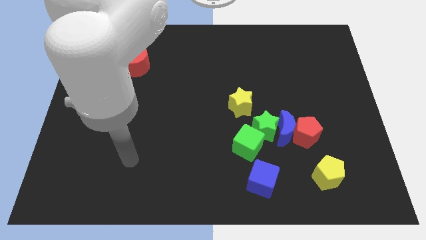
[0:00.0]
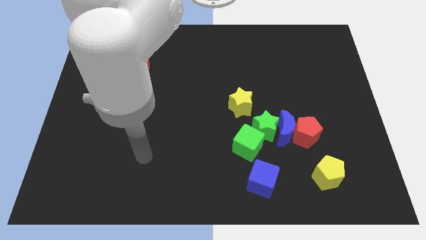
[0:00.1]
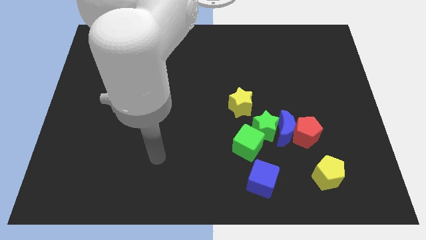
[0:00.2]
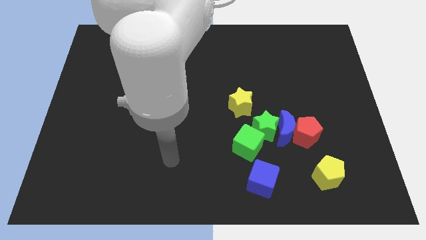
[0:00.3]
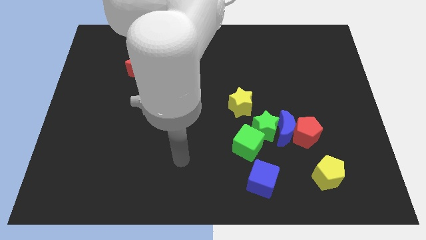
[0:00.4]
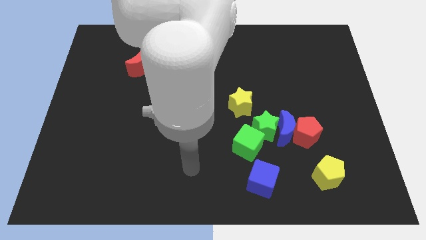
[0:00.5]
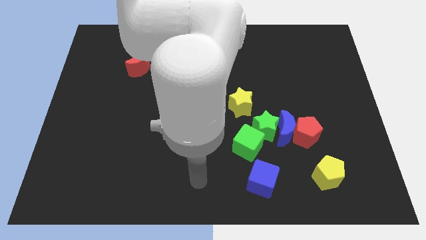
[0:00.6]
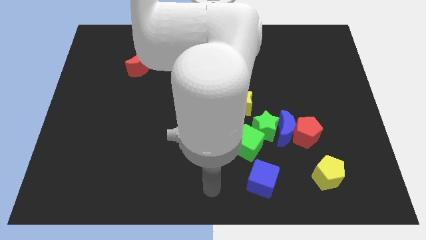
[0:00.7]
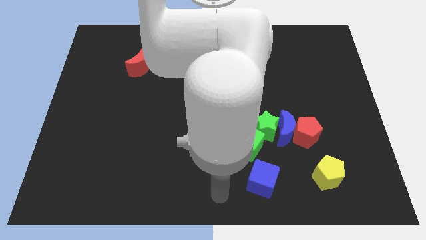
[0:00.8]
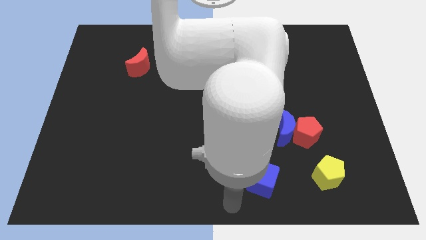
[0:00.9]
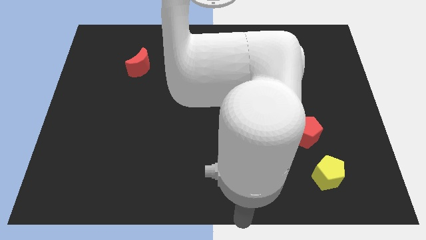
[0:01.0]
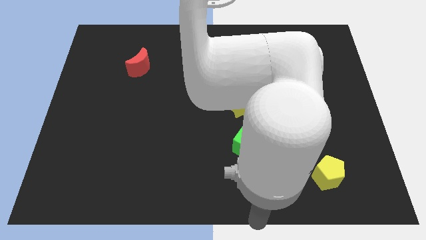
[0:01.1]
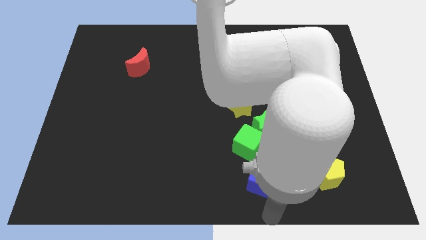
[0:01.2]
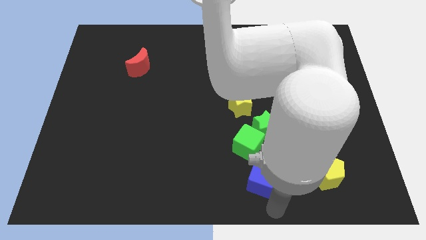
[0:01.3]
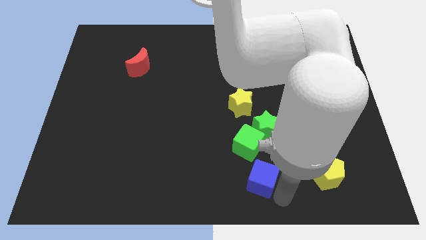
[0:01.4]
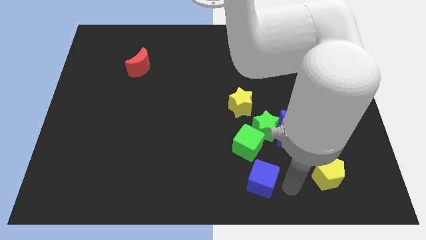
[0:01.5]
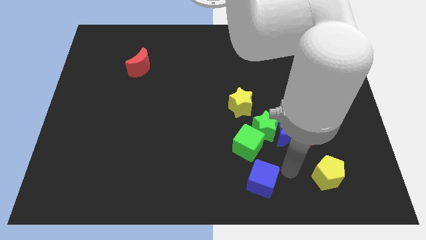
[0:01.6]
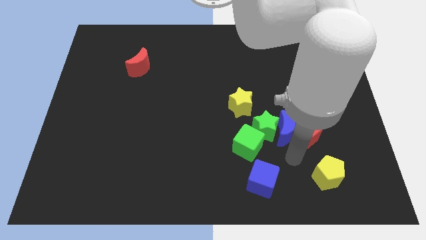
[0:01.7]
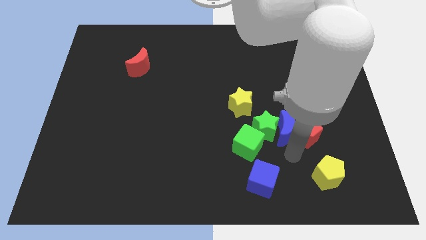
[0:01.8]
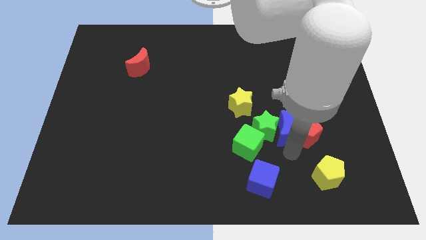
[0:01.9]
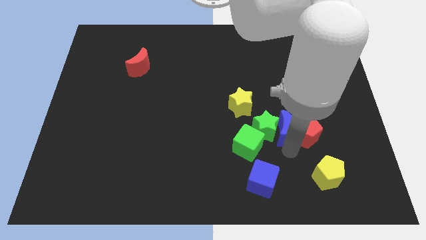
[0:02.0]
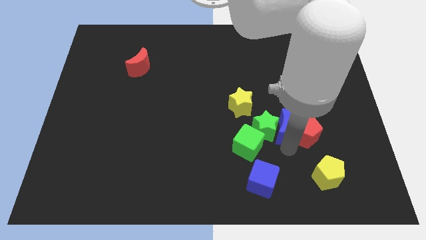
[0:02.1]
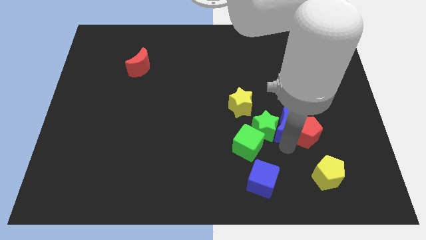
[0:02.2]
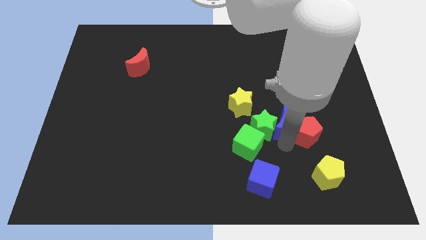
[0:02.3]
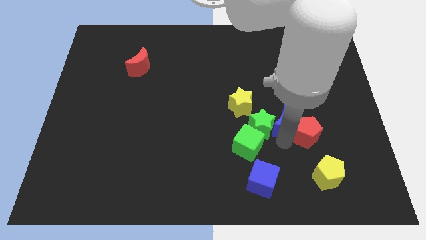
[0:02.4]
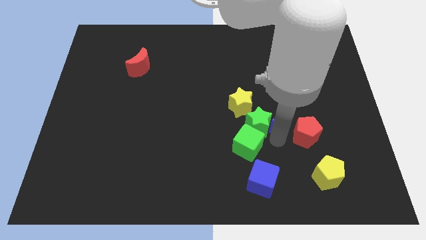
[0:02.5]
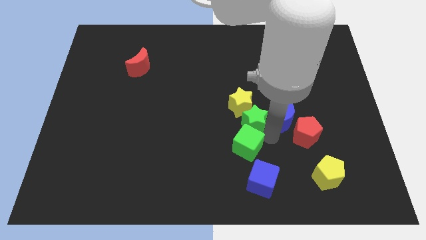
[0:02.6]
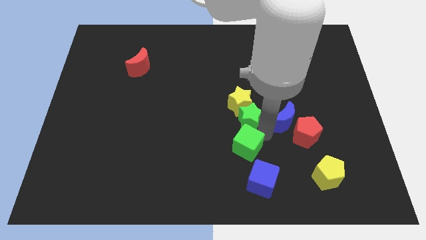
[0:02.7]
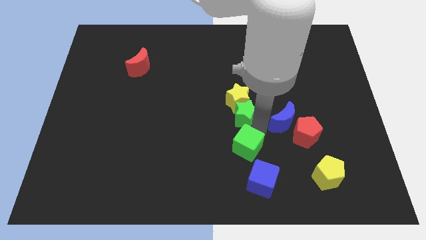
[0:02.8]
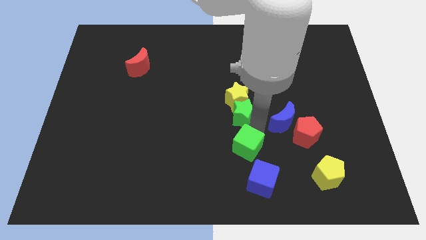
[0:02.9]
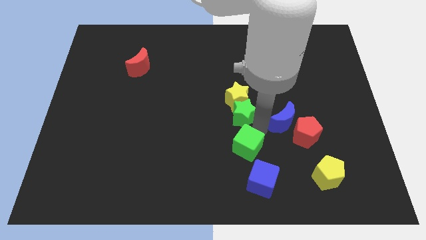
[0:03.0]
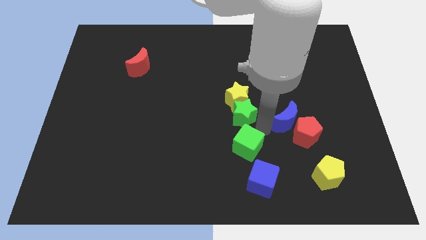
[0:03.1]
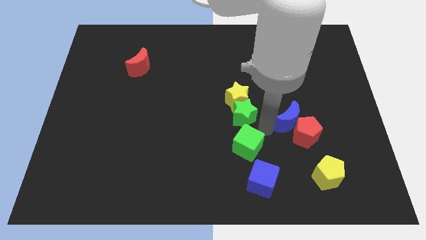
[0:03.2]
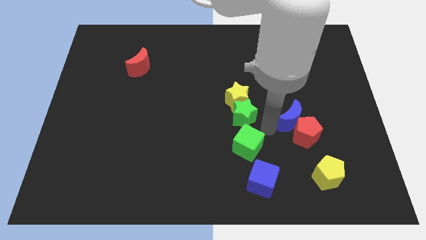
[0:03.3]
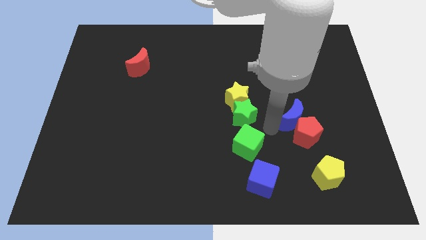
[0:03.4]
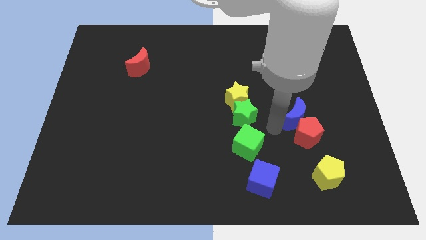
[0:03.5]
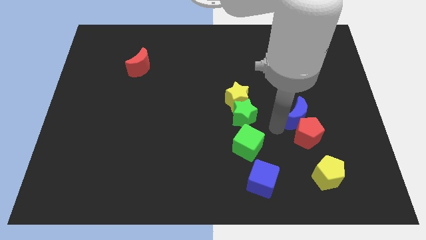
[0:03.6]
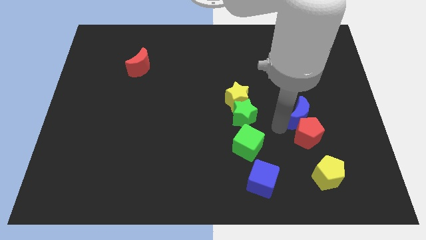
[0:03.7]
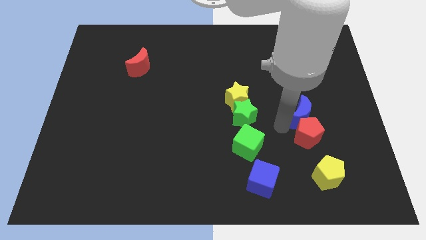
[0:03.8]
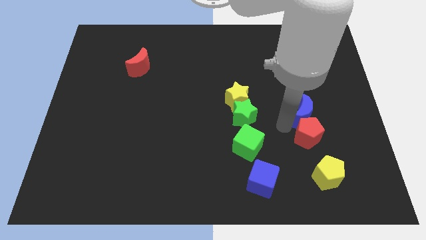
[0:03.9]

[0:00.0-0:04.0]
pull the blue moon apart from the group

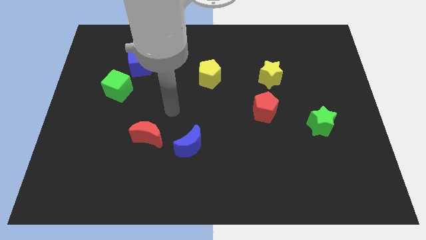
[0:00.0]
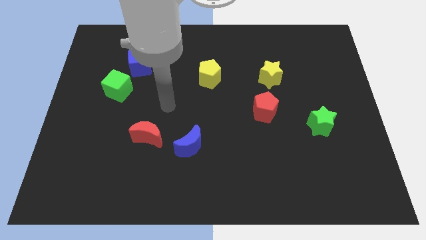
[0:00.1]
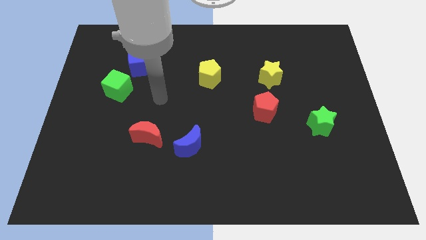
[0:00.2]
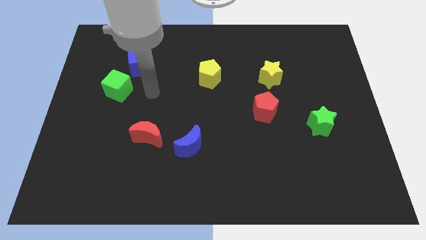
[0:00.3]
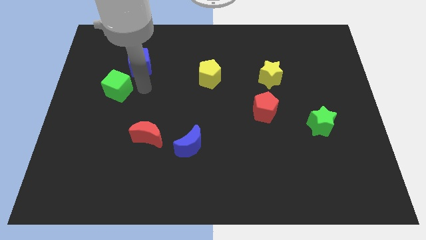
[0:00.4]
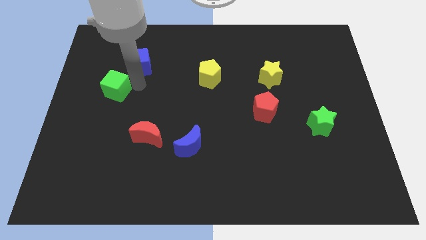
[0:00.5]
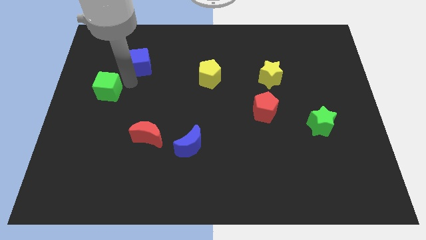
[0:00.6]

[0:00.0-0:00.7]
move the blue cube away from the green cube

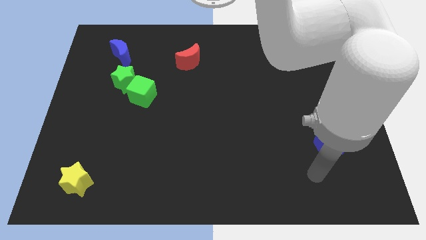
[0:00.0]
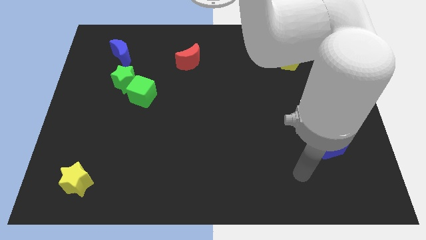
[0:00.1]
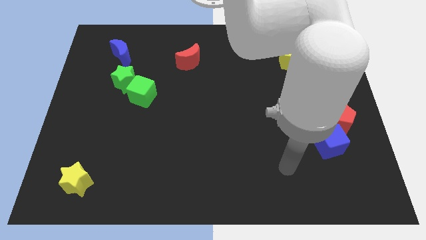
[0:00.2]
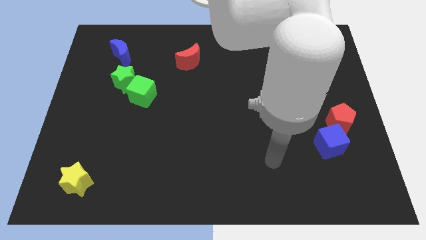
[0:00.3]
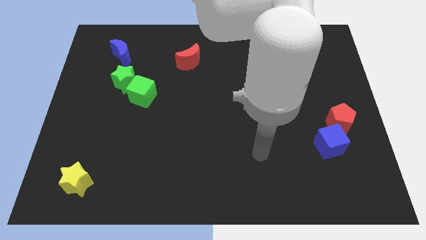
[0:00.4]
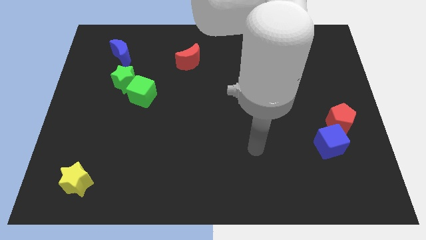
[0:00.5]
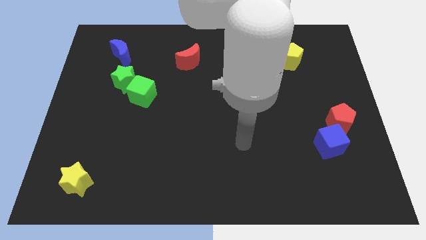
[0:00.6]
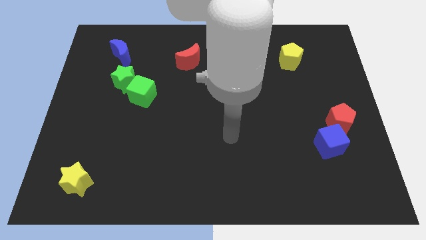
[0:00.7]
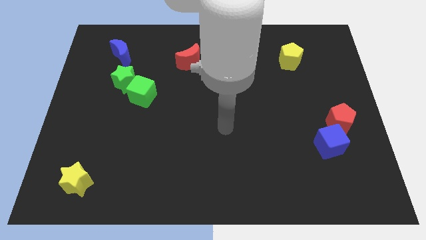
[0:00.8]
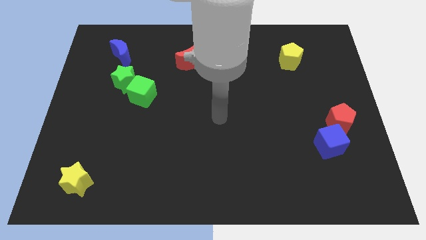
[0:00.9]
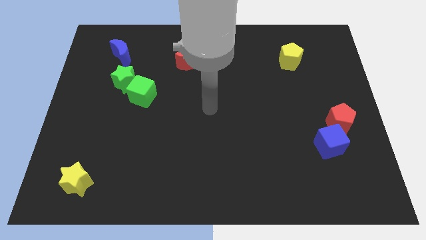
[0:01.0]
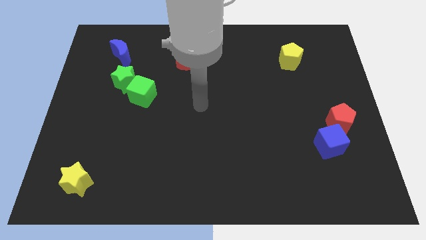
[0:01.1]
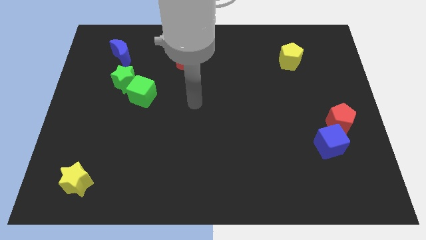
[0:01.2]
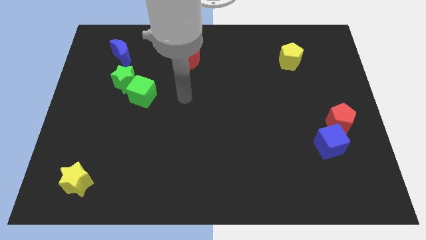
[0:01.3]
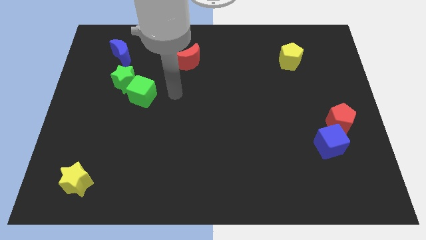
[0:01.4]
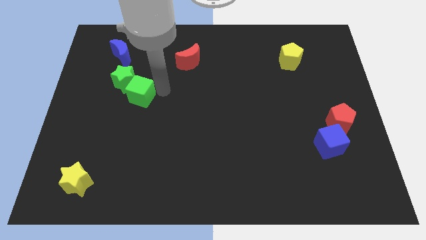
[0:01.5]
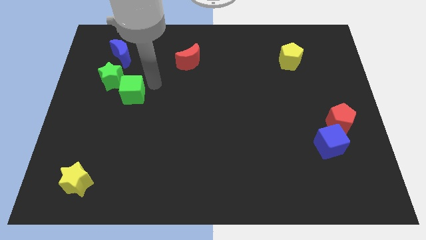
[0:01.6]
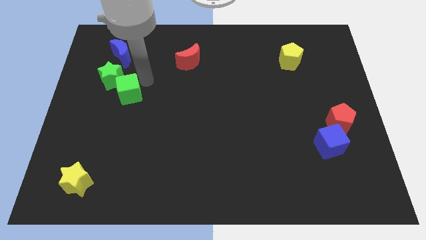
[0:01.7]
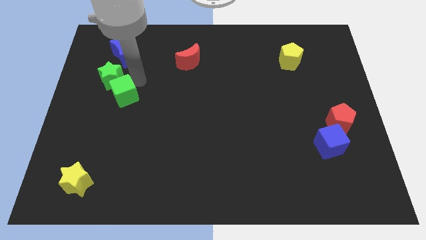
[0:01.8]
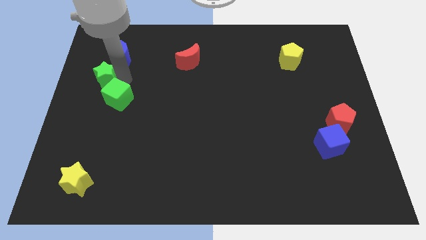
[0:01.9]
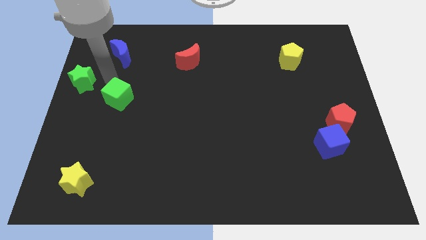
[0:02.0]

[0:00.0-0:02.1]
separate the green cube from the green star

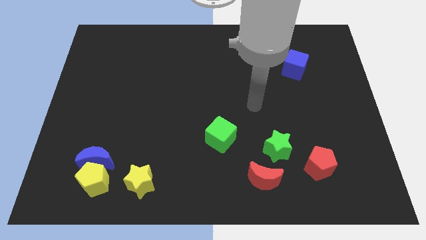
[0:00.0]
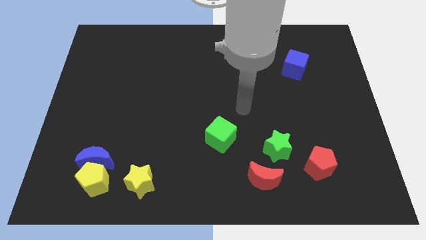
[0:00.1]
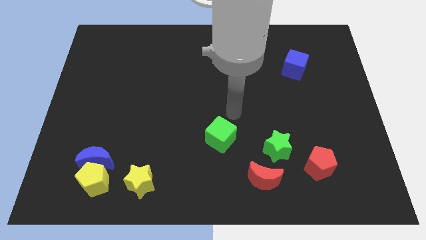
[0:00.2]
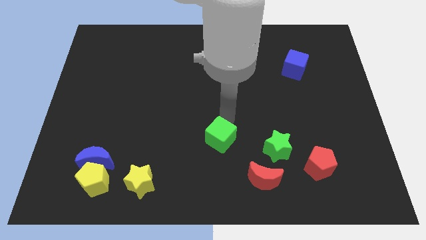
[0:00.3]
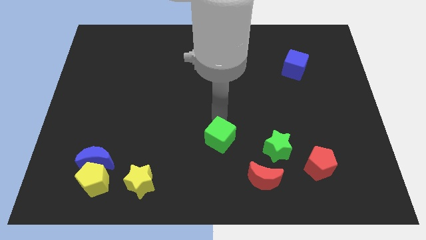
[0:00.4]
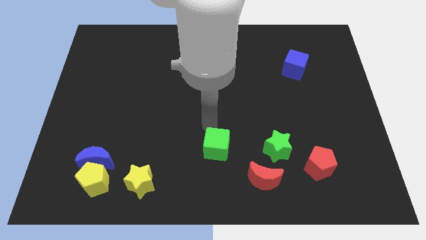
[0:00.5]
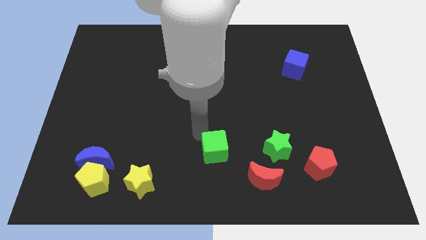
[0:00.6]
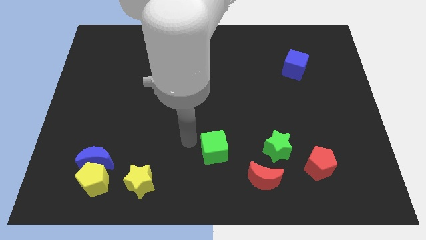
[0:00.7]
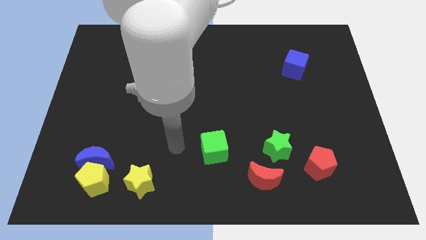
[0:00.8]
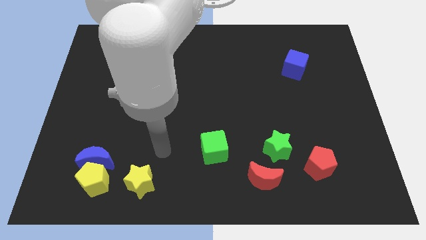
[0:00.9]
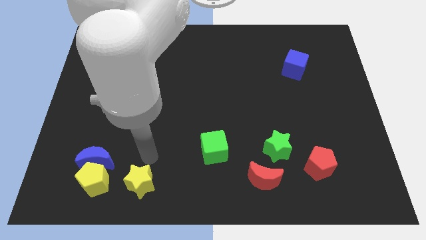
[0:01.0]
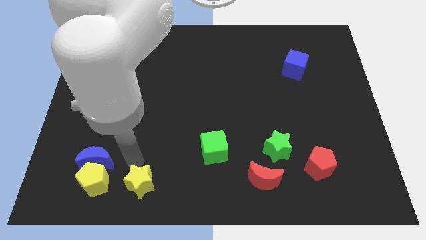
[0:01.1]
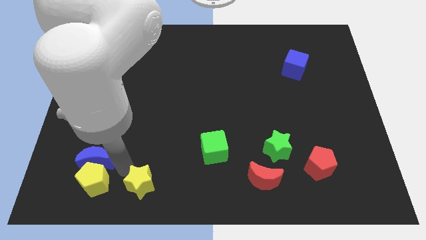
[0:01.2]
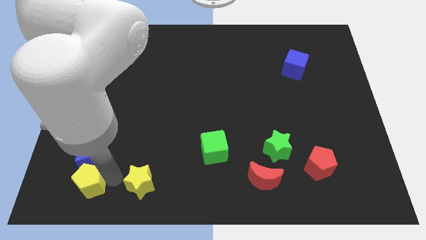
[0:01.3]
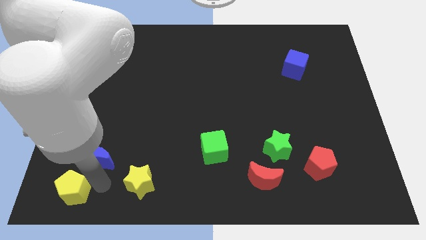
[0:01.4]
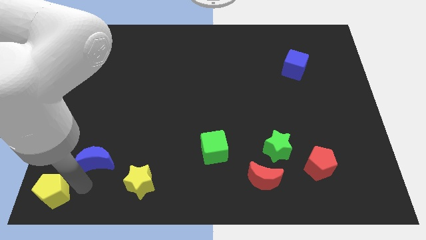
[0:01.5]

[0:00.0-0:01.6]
separate the blue moon from the yellow pentagon

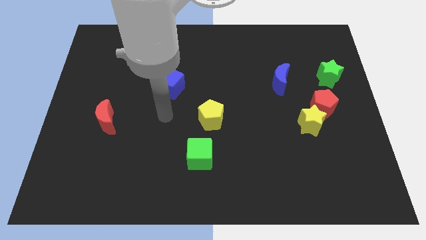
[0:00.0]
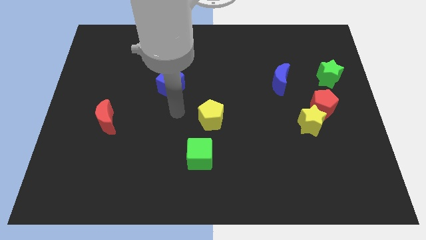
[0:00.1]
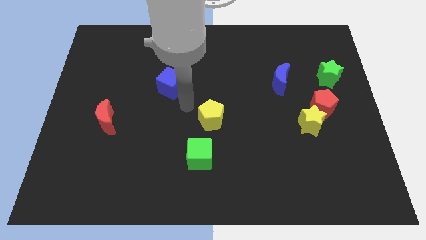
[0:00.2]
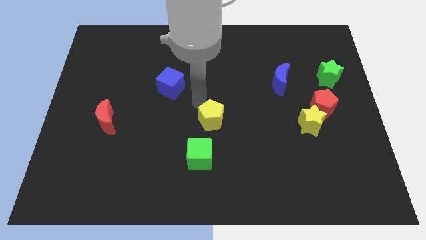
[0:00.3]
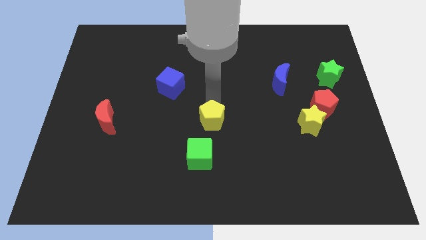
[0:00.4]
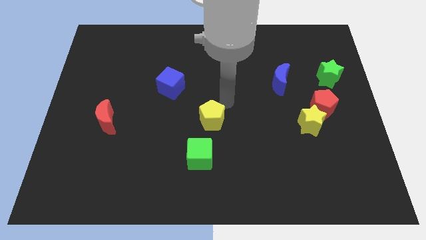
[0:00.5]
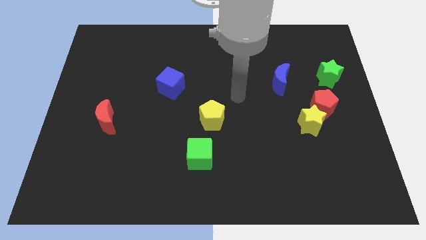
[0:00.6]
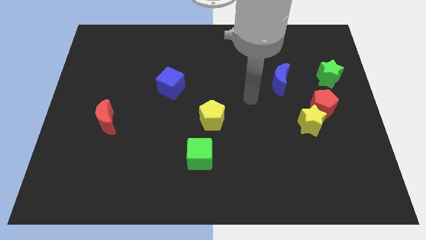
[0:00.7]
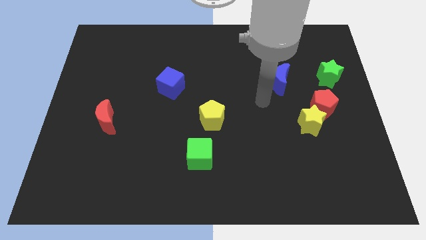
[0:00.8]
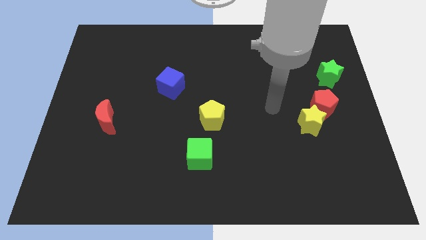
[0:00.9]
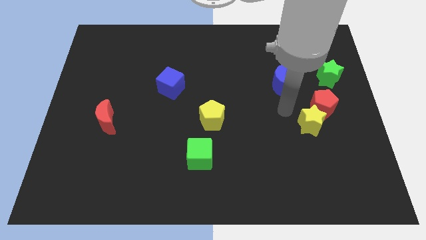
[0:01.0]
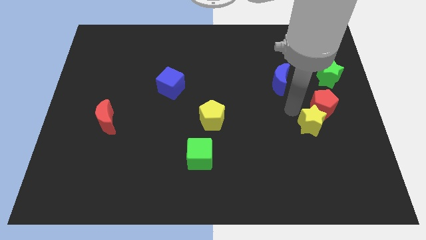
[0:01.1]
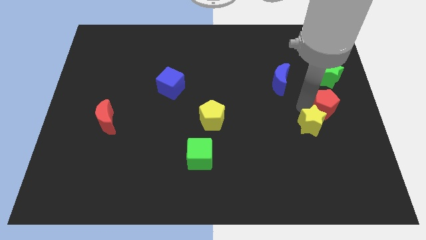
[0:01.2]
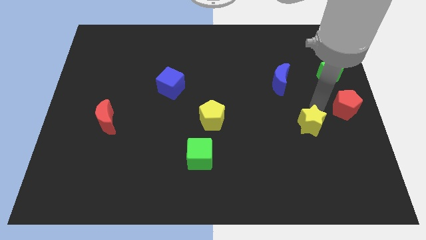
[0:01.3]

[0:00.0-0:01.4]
separate the yellow star from the red pentagon
